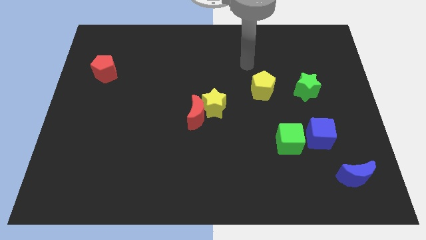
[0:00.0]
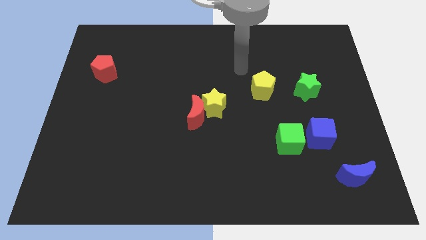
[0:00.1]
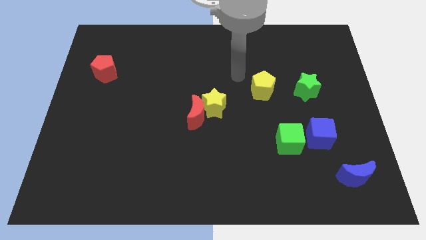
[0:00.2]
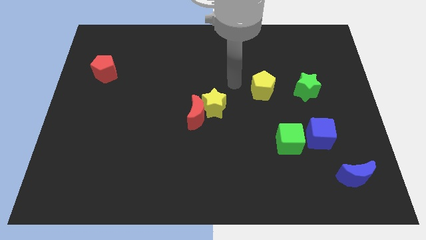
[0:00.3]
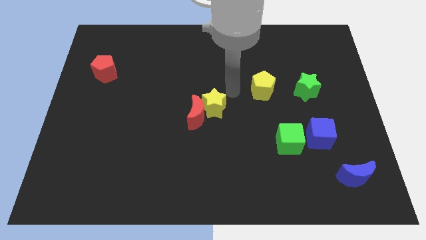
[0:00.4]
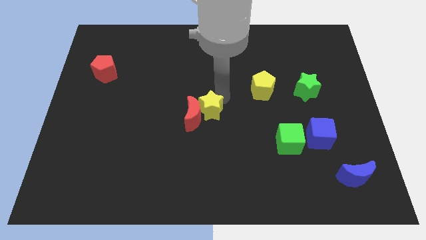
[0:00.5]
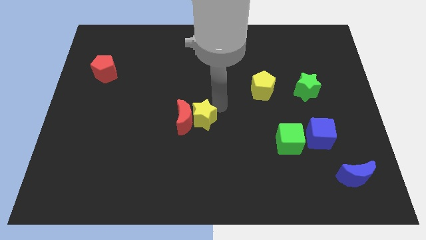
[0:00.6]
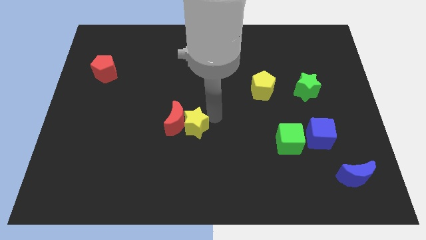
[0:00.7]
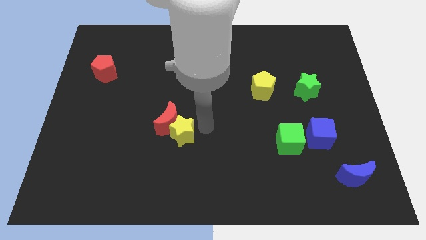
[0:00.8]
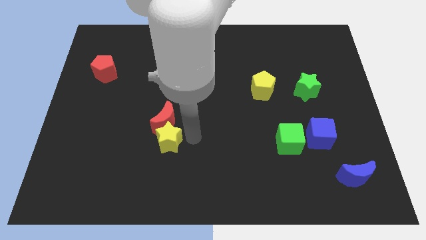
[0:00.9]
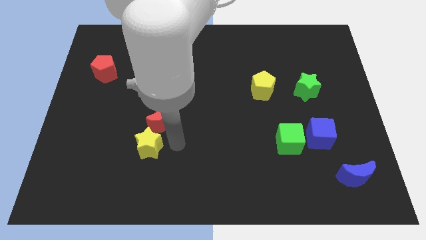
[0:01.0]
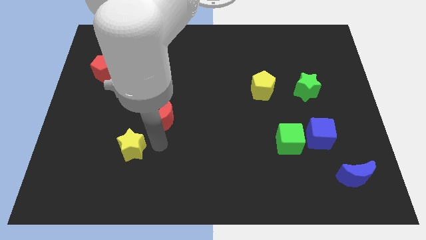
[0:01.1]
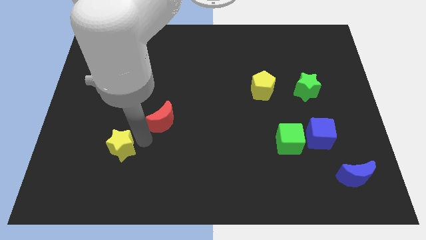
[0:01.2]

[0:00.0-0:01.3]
move the red moon away from the yellow star

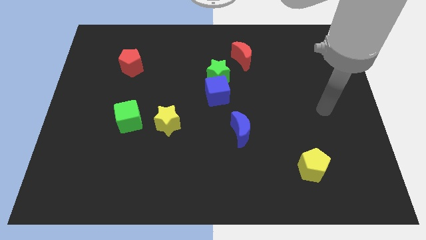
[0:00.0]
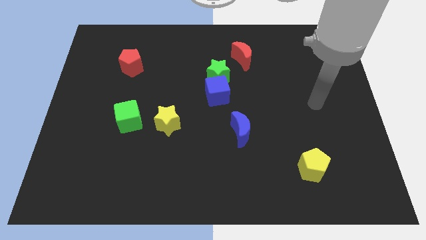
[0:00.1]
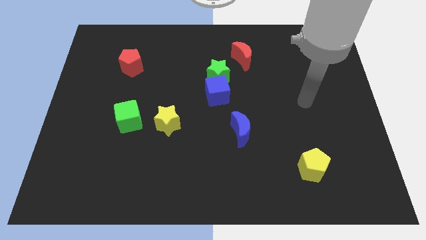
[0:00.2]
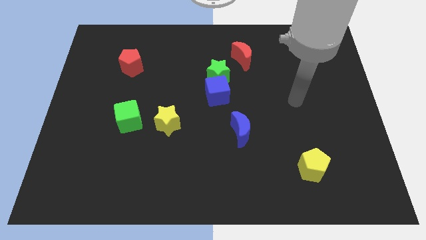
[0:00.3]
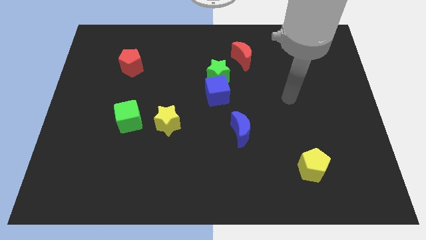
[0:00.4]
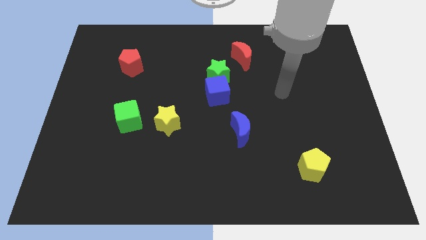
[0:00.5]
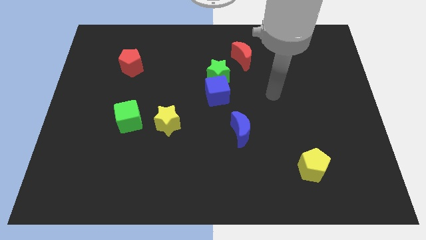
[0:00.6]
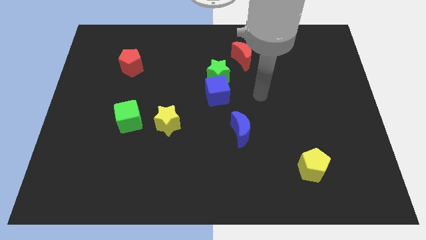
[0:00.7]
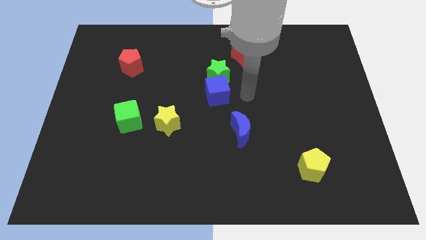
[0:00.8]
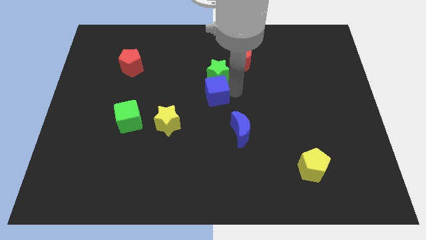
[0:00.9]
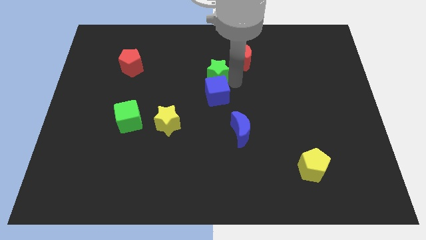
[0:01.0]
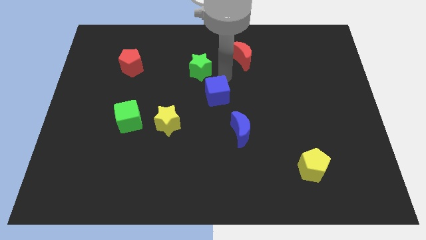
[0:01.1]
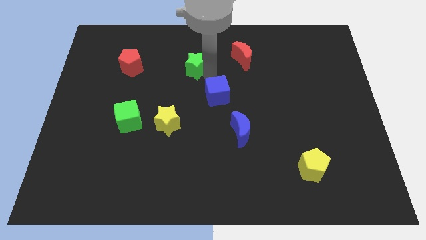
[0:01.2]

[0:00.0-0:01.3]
pull the blue cube apart from the green star

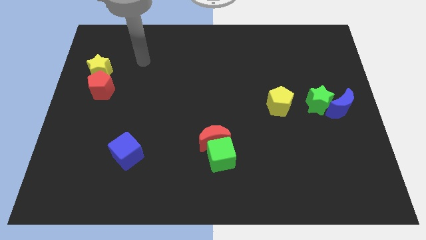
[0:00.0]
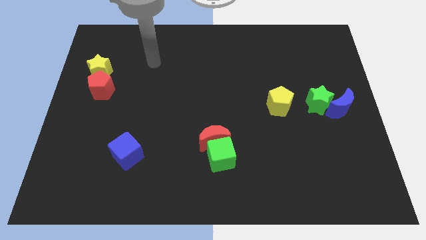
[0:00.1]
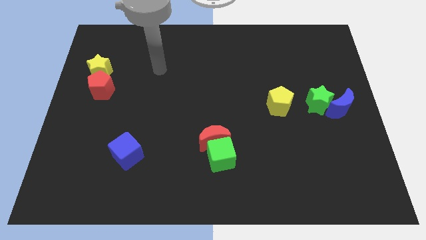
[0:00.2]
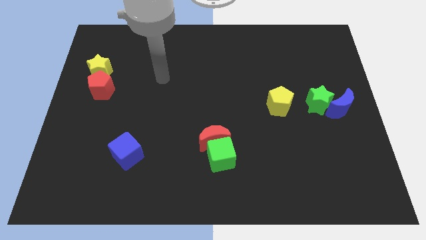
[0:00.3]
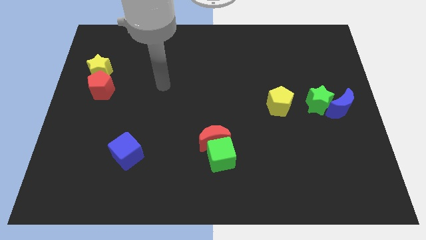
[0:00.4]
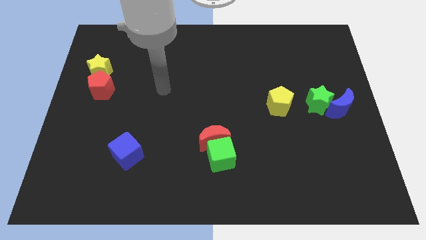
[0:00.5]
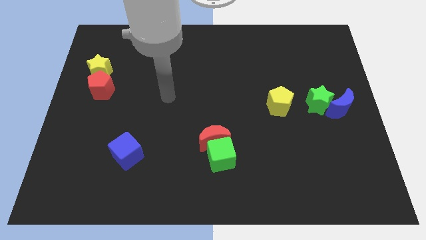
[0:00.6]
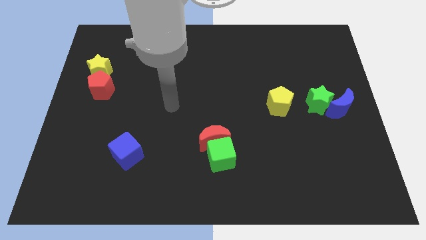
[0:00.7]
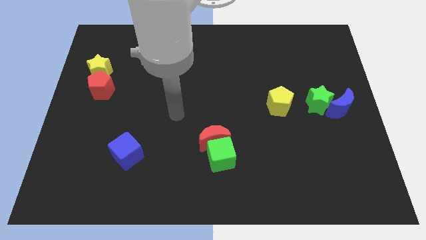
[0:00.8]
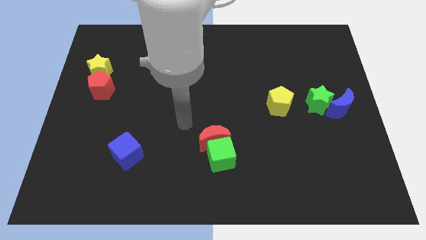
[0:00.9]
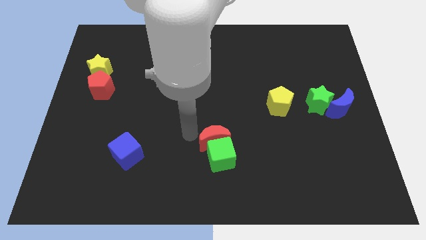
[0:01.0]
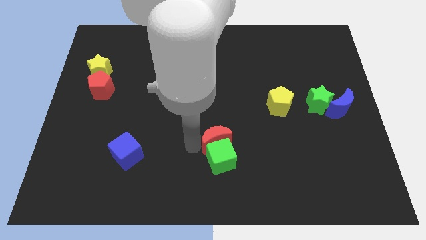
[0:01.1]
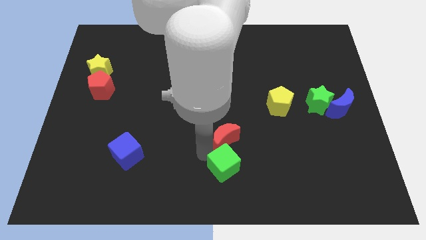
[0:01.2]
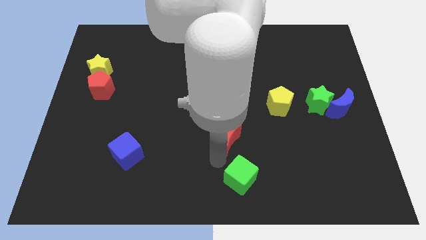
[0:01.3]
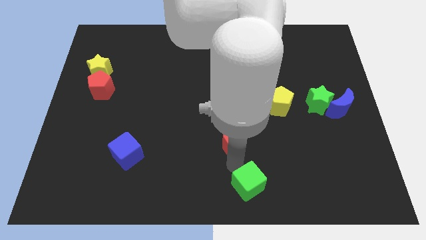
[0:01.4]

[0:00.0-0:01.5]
pull the red moon apart from the green cube

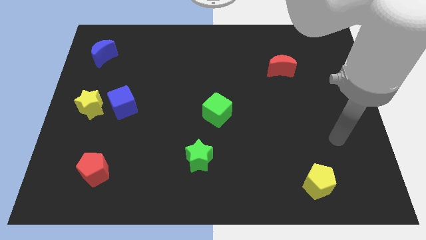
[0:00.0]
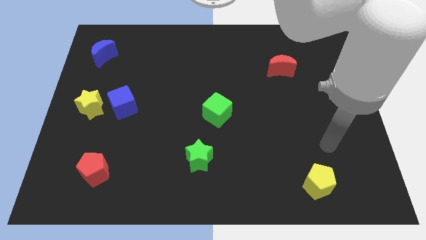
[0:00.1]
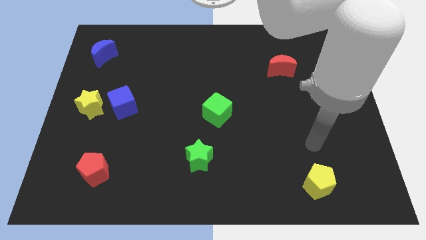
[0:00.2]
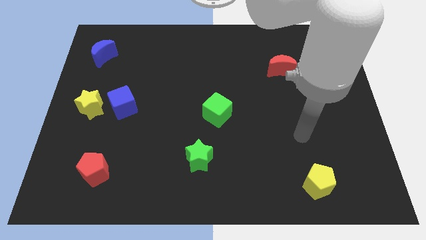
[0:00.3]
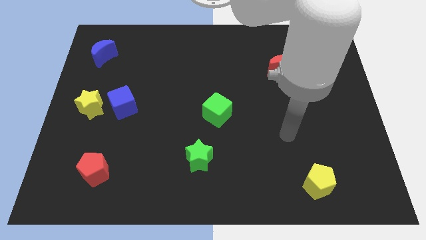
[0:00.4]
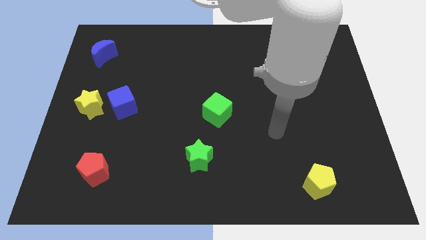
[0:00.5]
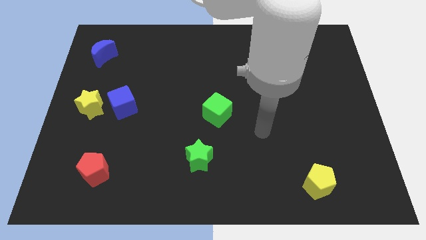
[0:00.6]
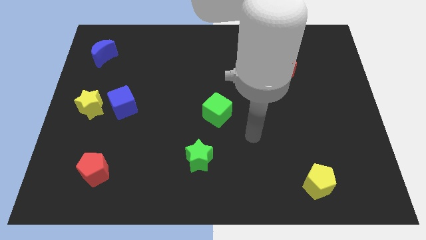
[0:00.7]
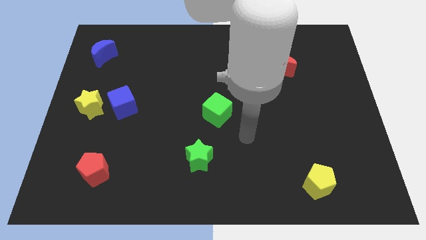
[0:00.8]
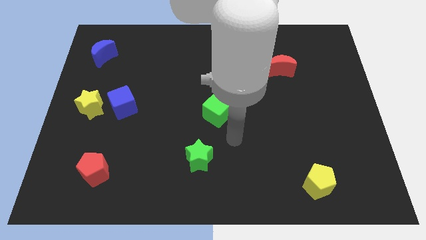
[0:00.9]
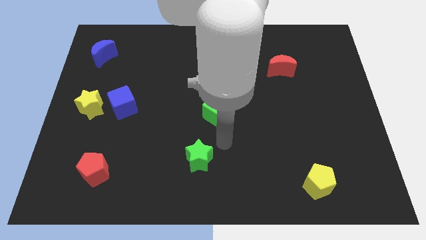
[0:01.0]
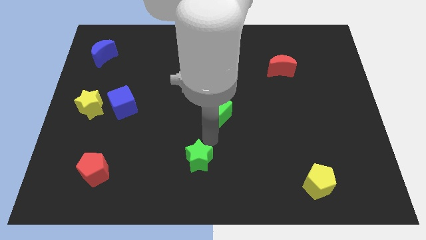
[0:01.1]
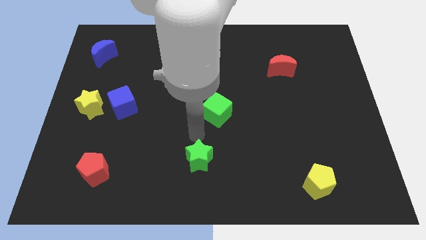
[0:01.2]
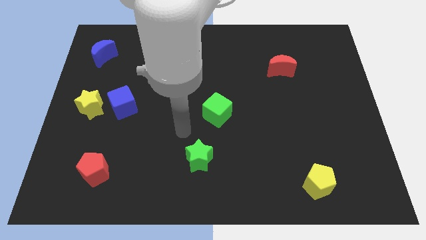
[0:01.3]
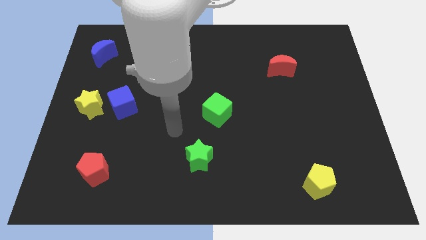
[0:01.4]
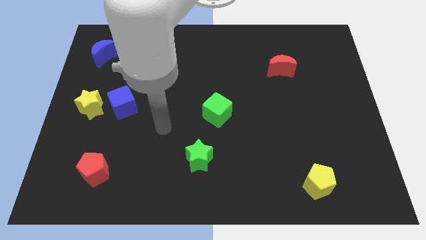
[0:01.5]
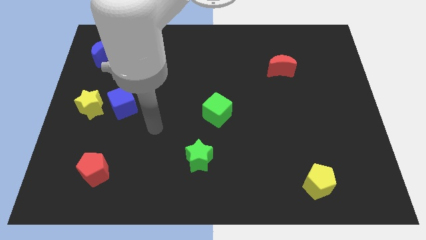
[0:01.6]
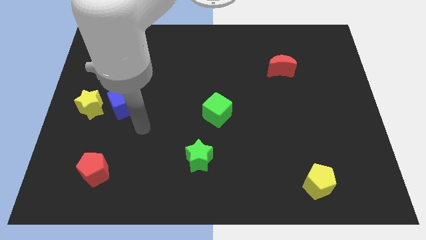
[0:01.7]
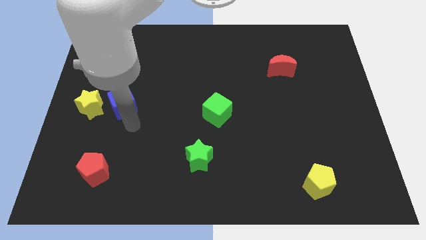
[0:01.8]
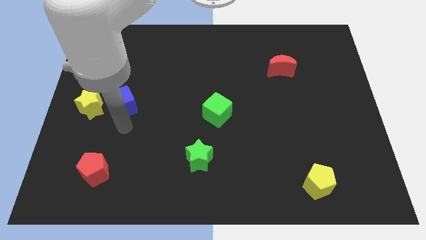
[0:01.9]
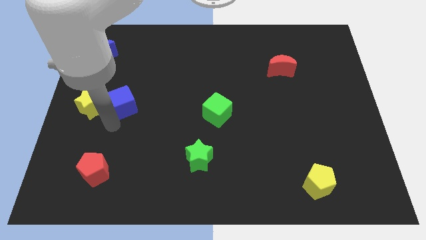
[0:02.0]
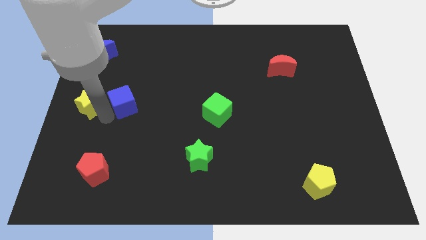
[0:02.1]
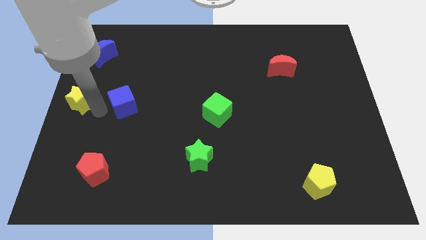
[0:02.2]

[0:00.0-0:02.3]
separate the blue cube from the yellow star

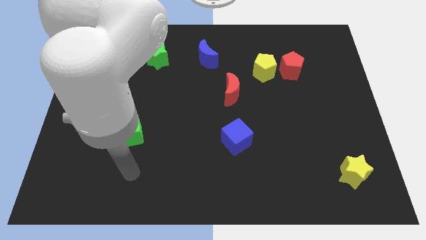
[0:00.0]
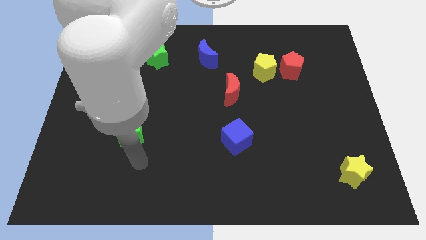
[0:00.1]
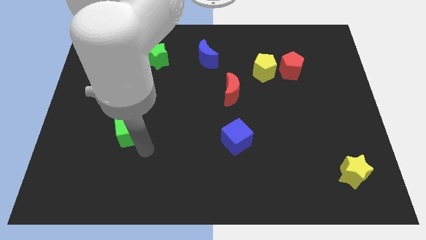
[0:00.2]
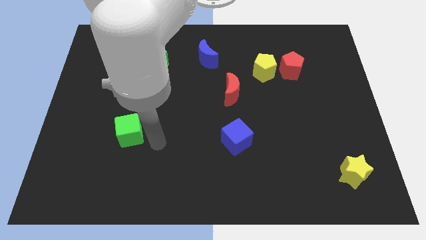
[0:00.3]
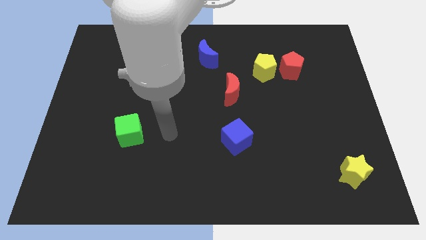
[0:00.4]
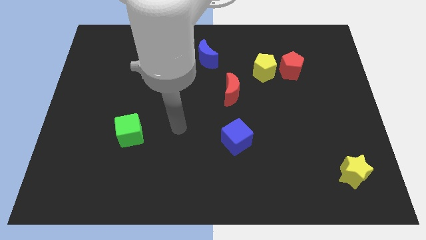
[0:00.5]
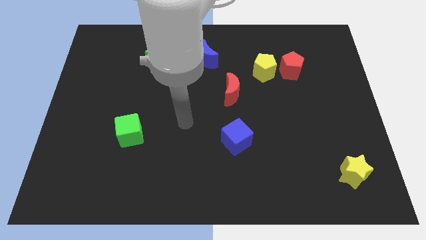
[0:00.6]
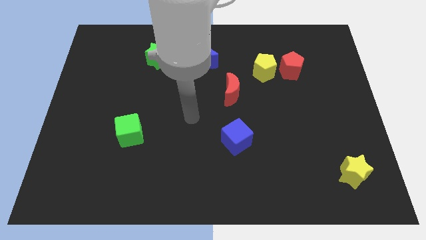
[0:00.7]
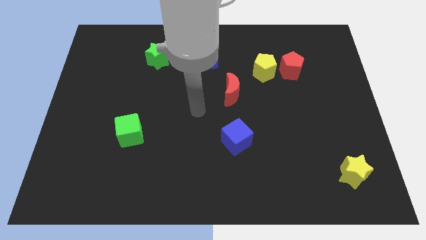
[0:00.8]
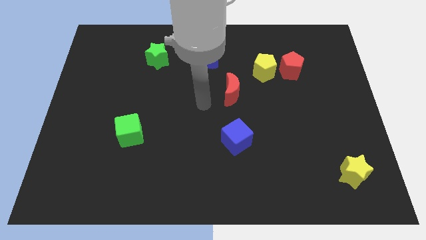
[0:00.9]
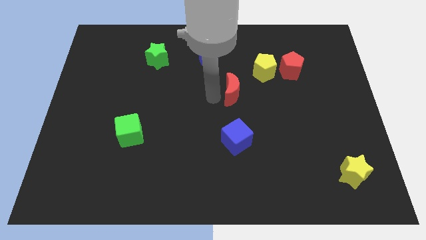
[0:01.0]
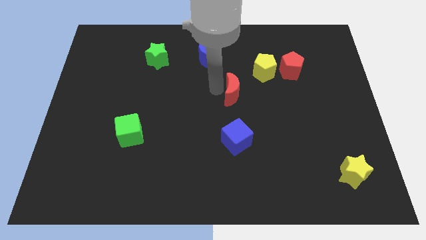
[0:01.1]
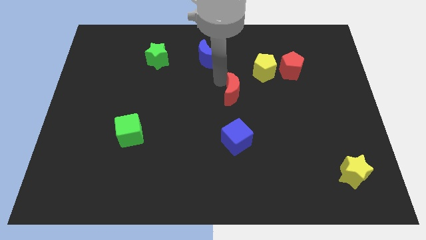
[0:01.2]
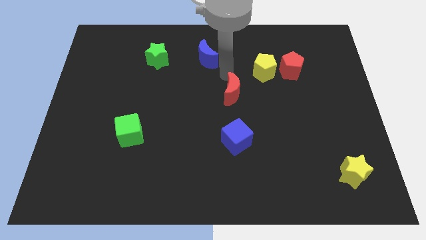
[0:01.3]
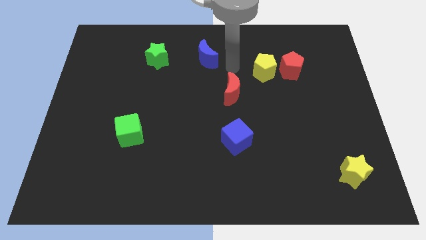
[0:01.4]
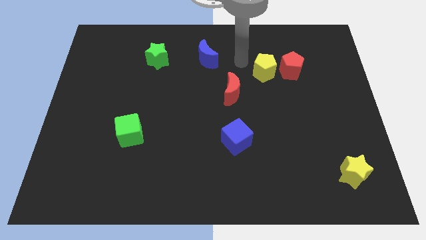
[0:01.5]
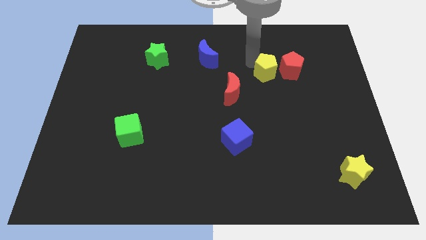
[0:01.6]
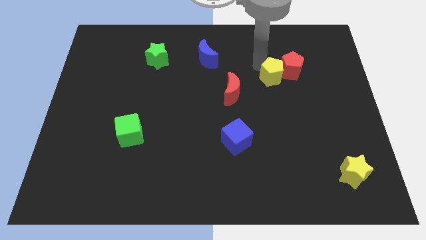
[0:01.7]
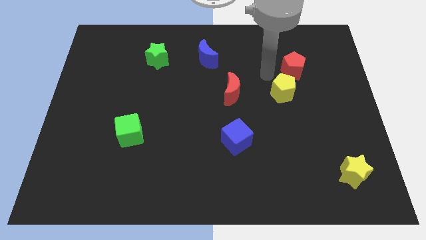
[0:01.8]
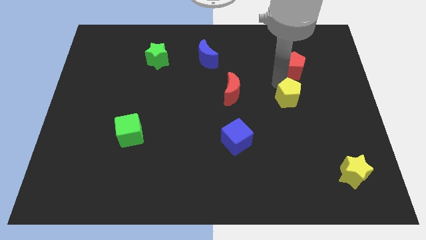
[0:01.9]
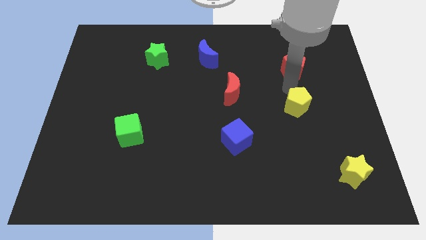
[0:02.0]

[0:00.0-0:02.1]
pull the red pentagon apart from the yellow pentagon

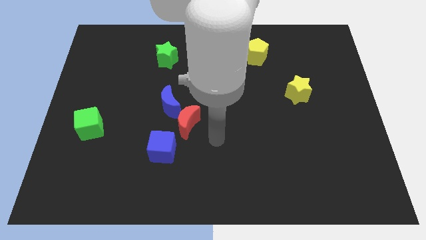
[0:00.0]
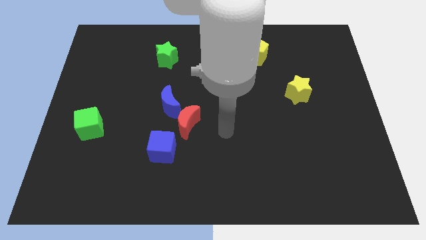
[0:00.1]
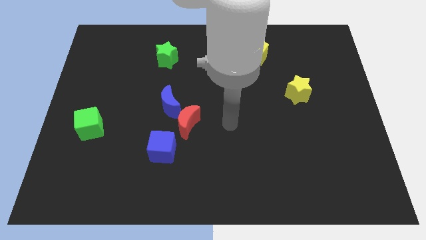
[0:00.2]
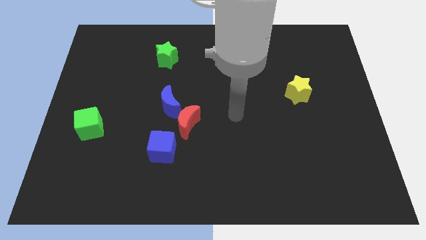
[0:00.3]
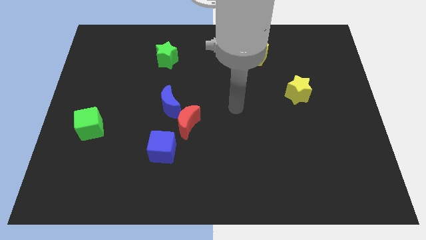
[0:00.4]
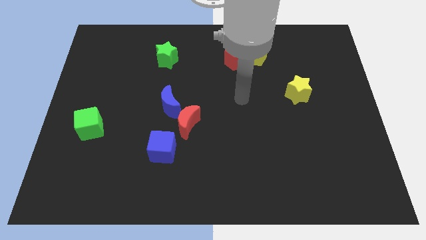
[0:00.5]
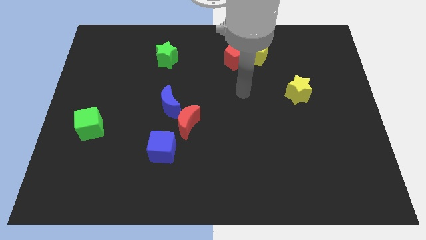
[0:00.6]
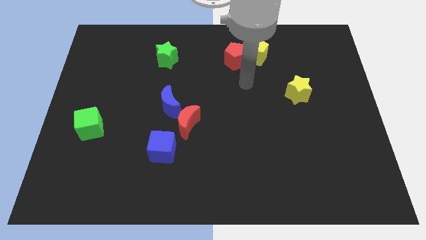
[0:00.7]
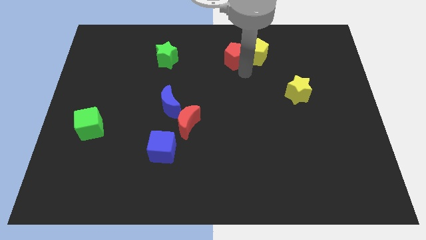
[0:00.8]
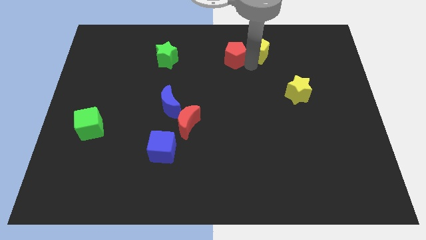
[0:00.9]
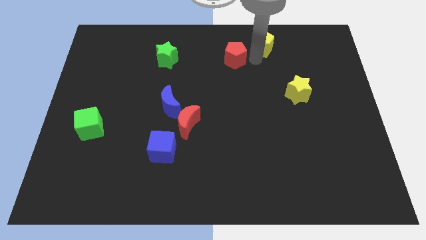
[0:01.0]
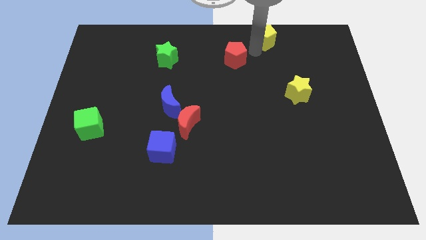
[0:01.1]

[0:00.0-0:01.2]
move the red pentagon away from the yellow pentagon
